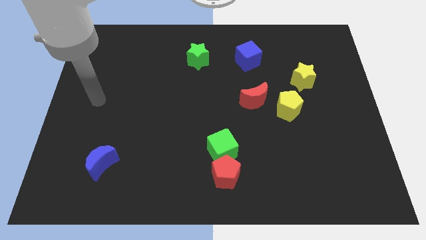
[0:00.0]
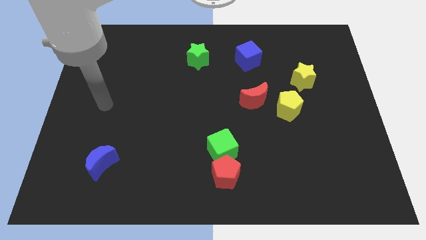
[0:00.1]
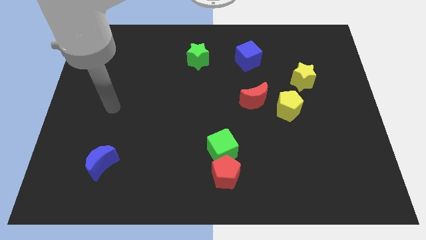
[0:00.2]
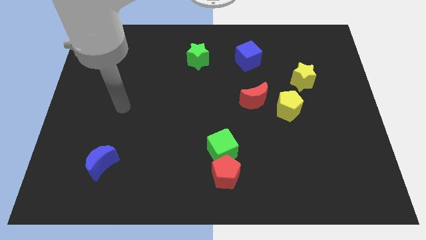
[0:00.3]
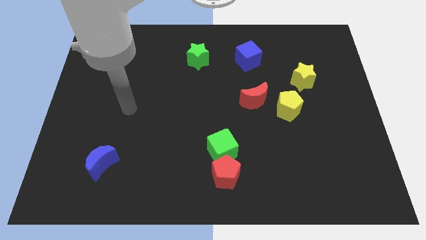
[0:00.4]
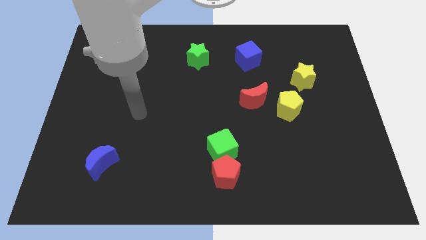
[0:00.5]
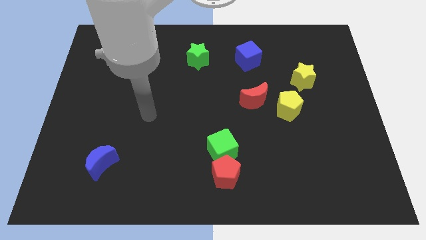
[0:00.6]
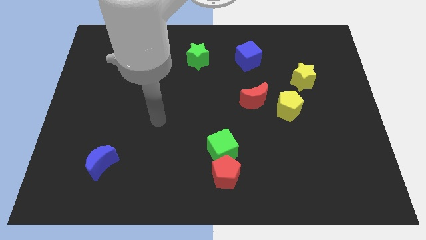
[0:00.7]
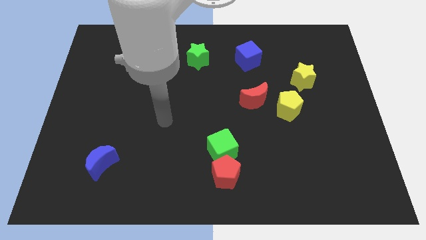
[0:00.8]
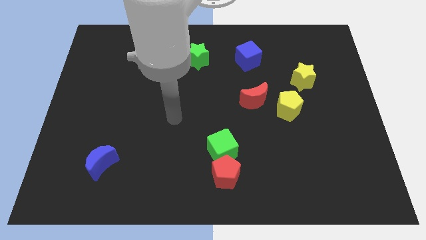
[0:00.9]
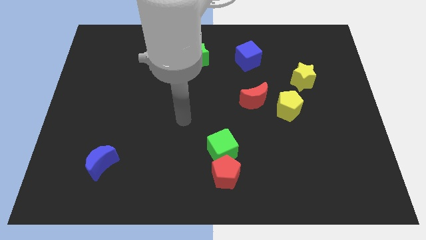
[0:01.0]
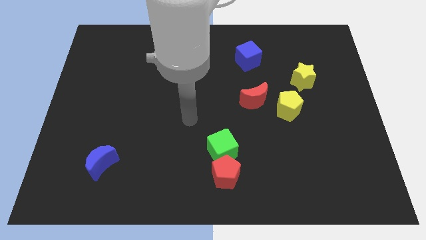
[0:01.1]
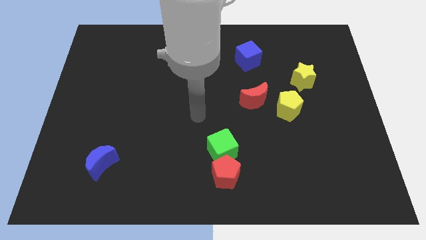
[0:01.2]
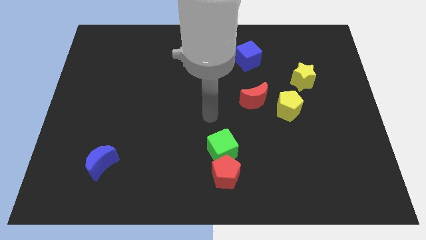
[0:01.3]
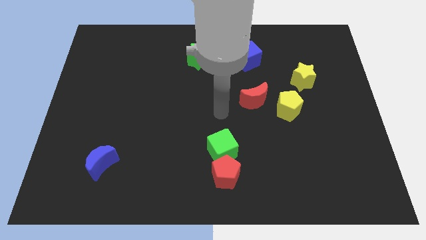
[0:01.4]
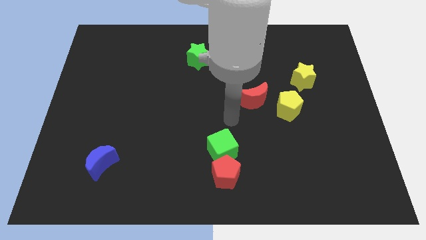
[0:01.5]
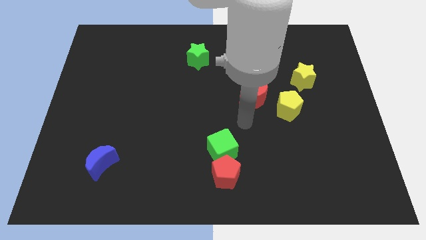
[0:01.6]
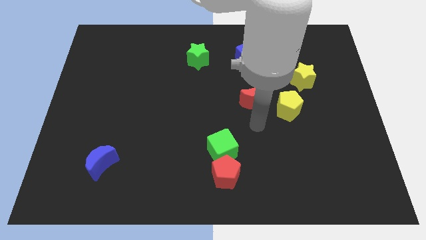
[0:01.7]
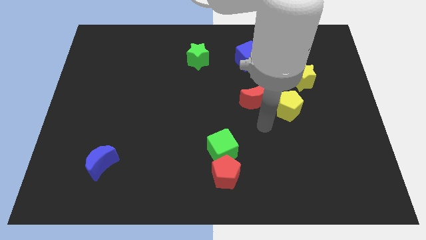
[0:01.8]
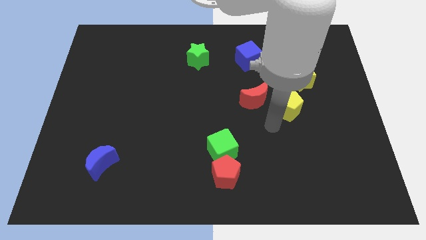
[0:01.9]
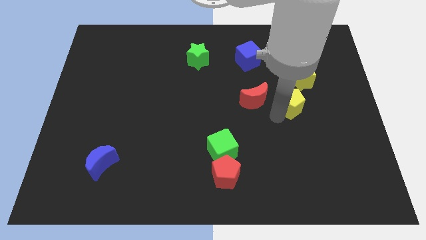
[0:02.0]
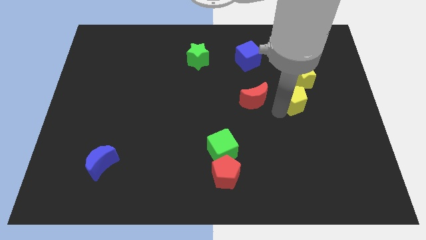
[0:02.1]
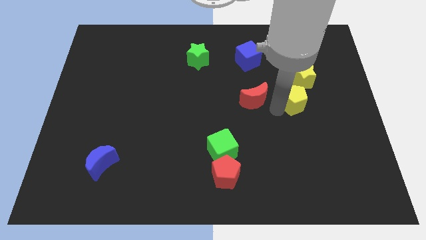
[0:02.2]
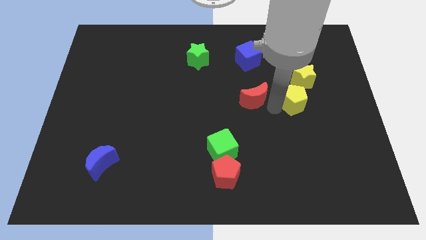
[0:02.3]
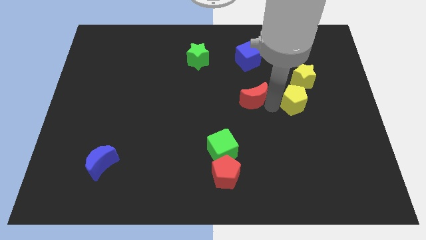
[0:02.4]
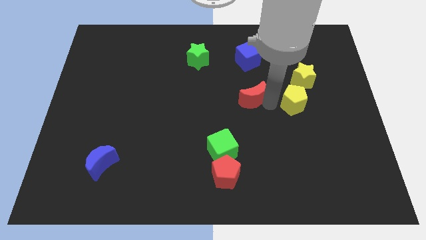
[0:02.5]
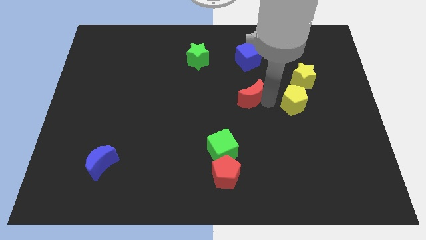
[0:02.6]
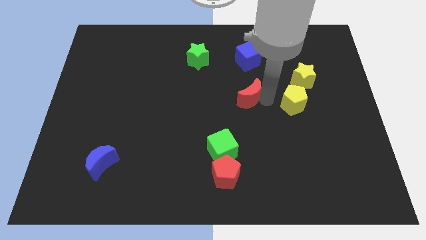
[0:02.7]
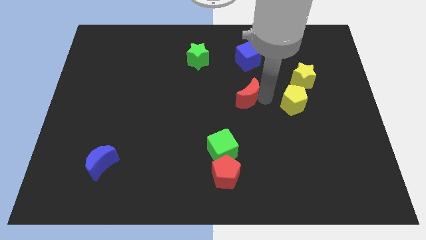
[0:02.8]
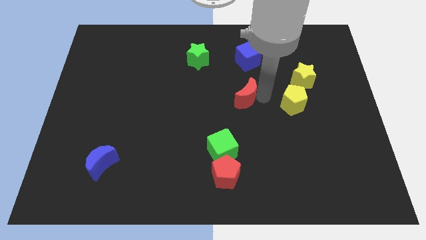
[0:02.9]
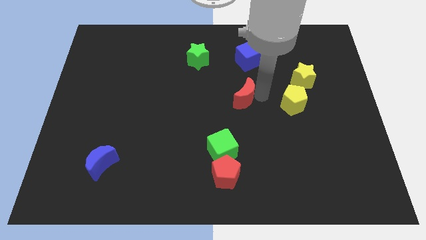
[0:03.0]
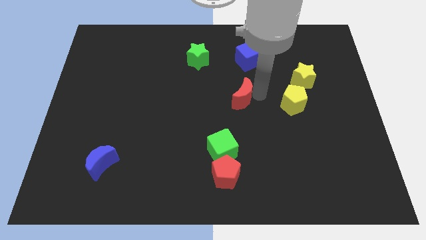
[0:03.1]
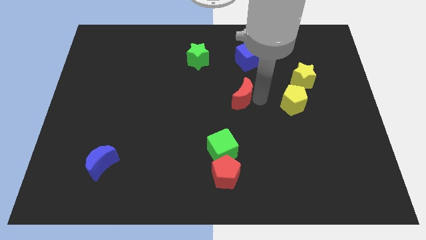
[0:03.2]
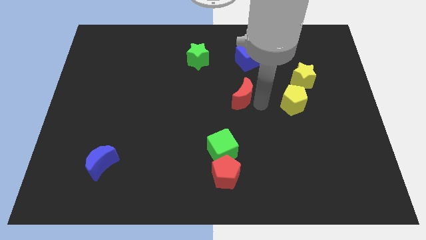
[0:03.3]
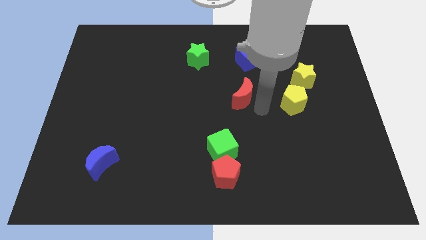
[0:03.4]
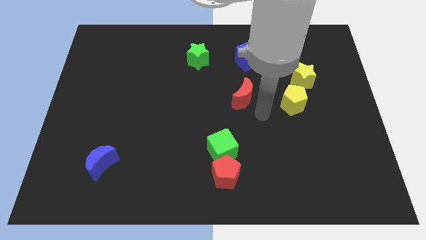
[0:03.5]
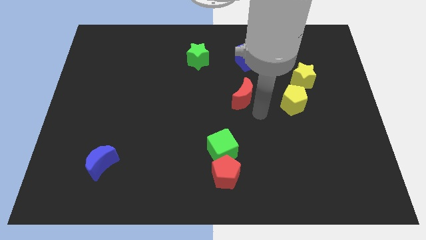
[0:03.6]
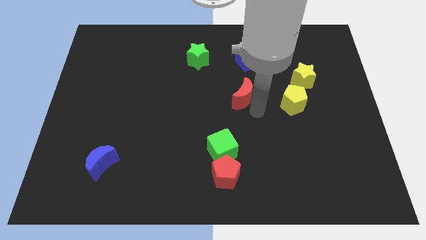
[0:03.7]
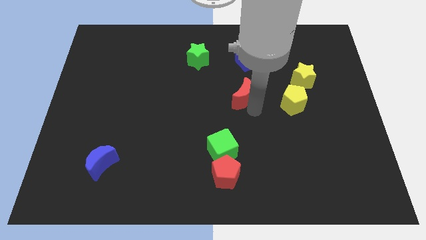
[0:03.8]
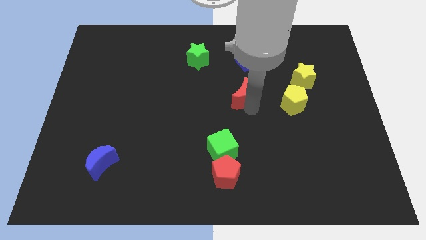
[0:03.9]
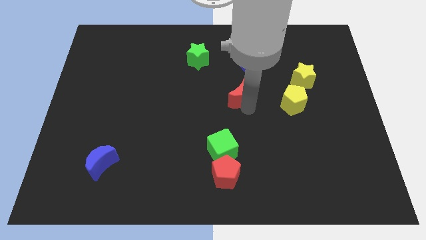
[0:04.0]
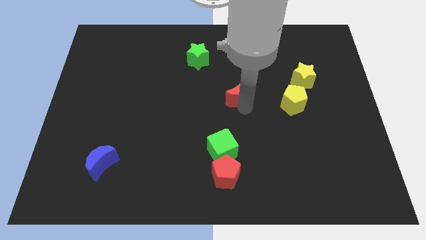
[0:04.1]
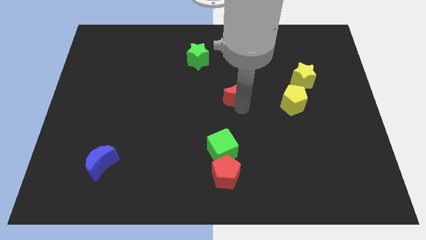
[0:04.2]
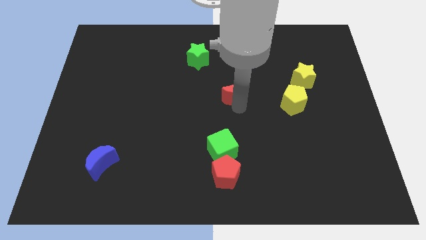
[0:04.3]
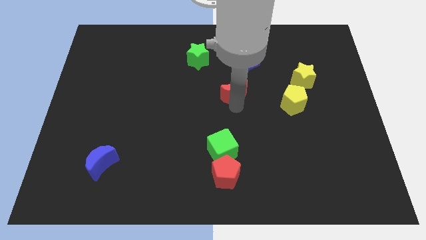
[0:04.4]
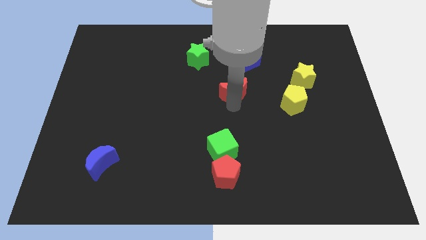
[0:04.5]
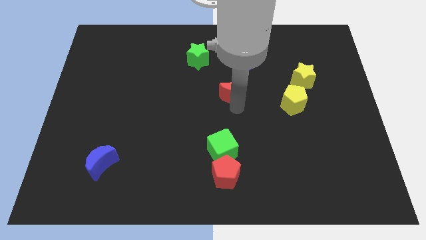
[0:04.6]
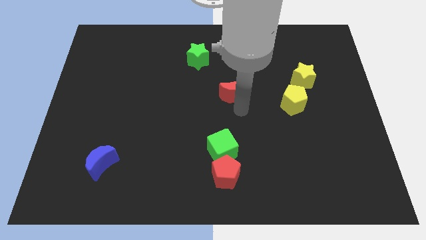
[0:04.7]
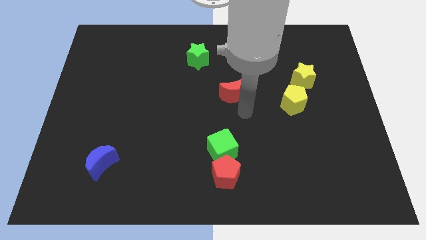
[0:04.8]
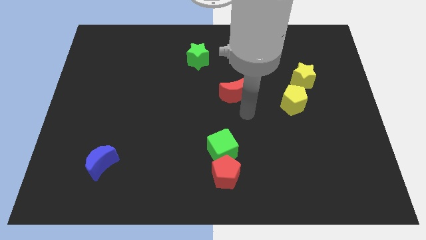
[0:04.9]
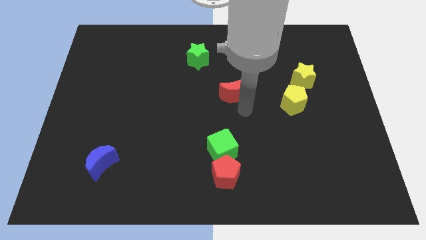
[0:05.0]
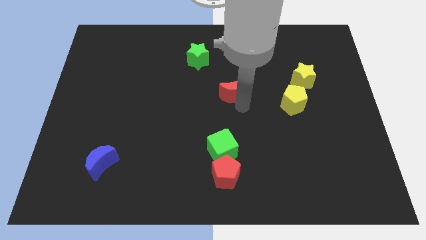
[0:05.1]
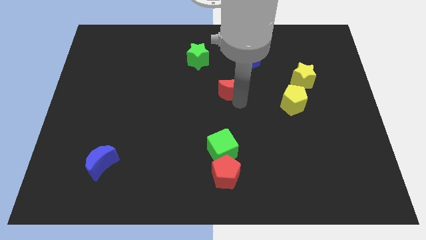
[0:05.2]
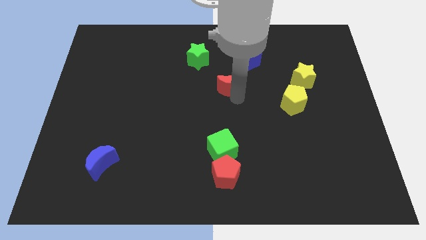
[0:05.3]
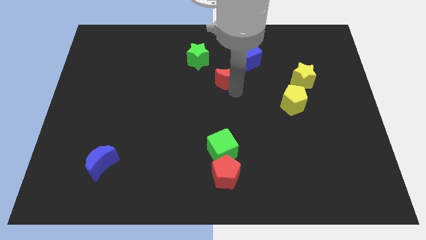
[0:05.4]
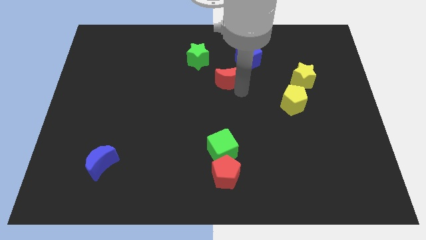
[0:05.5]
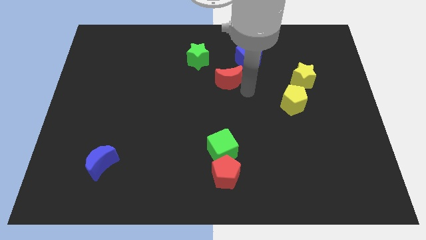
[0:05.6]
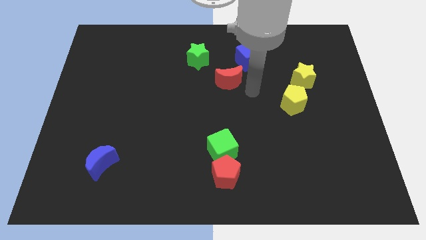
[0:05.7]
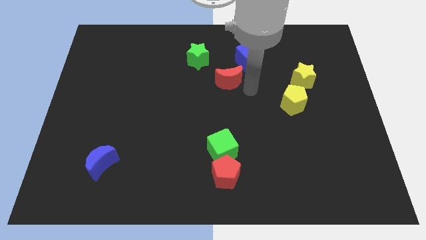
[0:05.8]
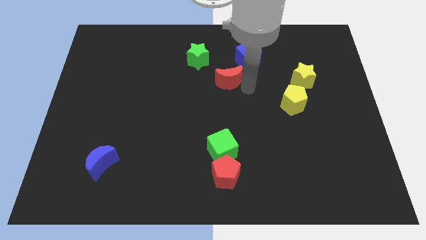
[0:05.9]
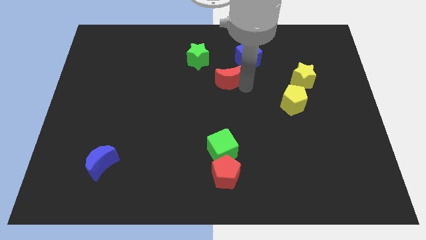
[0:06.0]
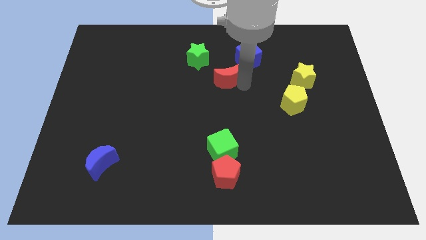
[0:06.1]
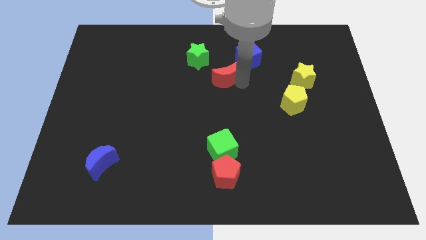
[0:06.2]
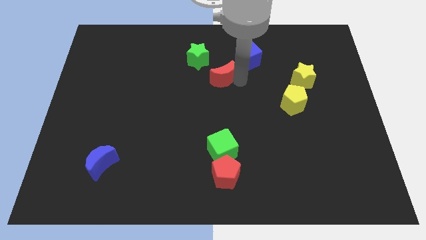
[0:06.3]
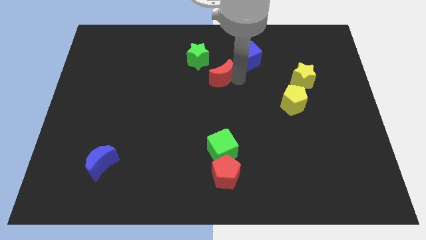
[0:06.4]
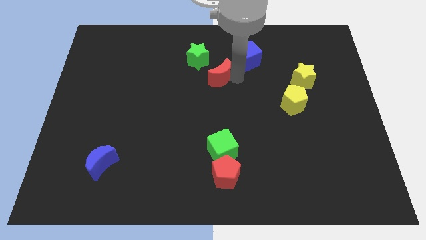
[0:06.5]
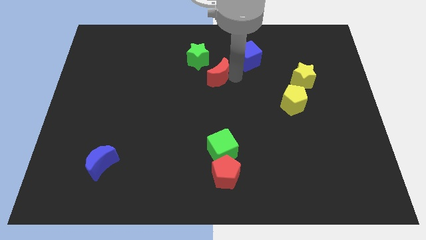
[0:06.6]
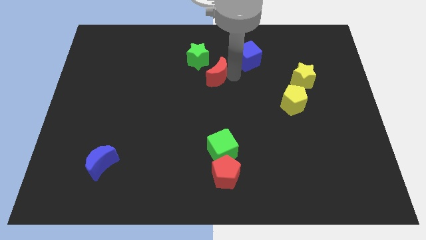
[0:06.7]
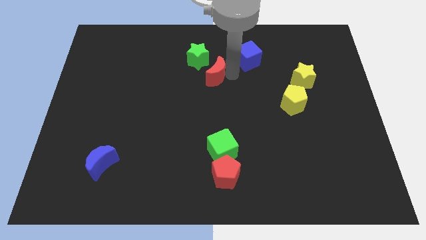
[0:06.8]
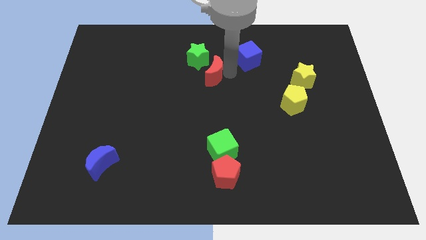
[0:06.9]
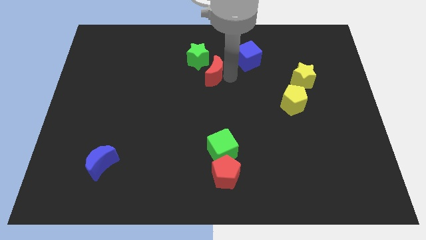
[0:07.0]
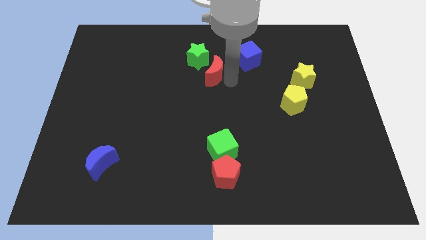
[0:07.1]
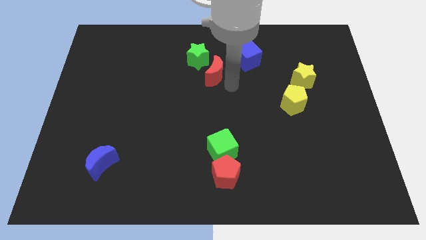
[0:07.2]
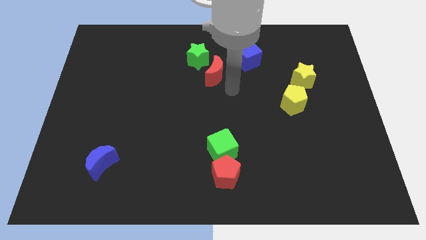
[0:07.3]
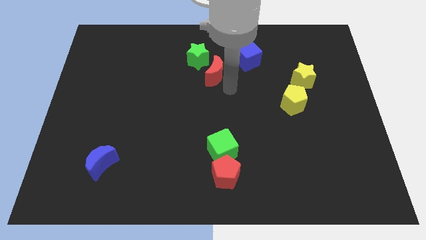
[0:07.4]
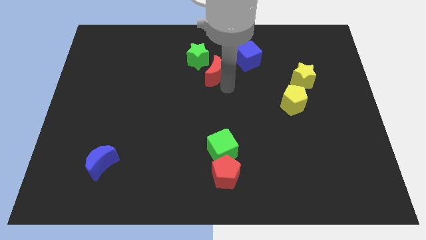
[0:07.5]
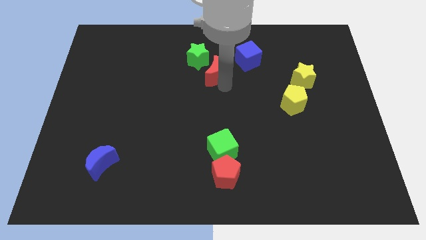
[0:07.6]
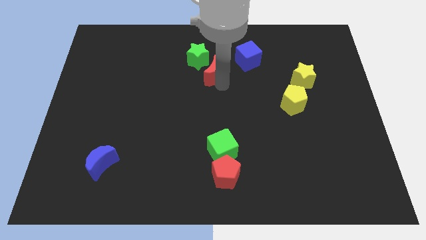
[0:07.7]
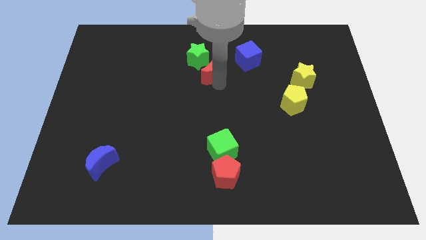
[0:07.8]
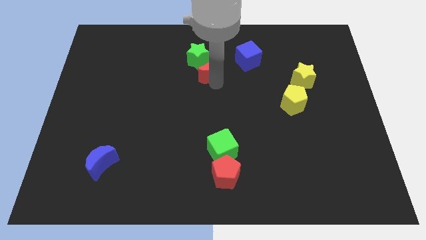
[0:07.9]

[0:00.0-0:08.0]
put the red moon close to the green star

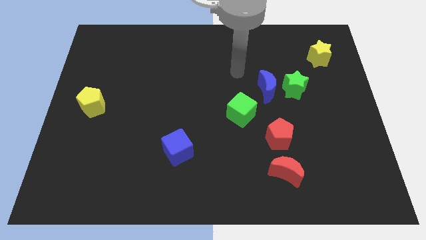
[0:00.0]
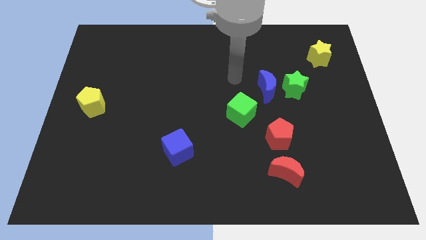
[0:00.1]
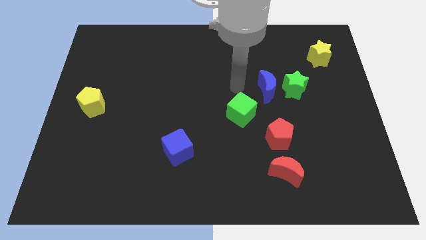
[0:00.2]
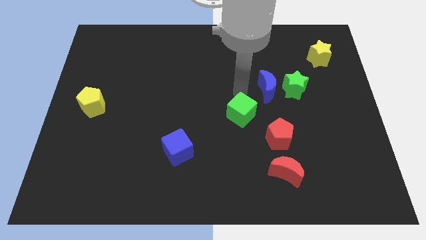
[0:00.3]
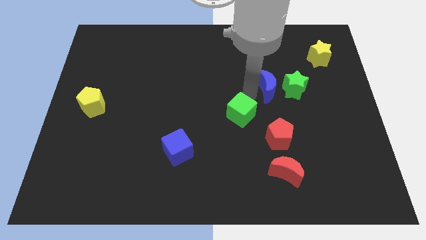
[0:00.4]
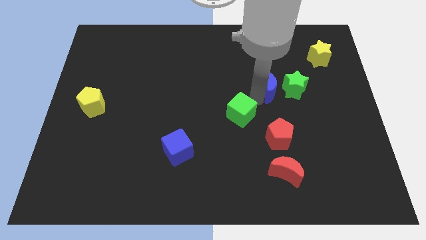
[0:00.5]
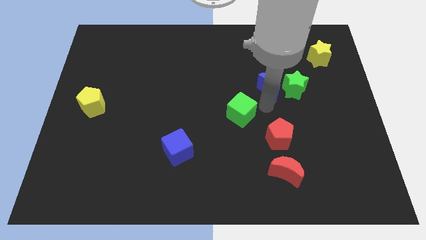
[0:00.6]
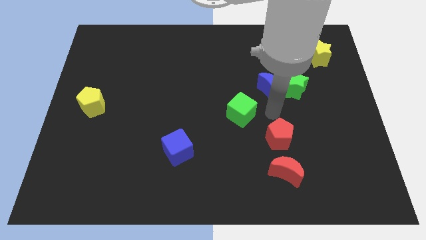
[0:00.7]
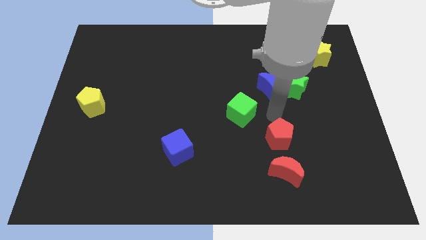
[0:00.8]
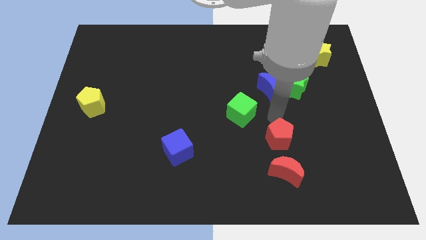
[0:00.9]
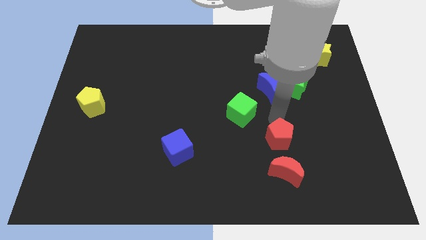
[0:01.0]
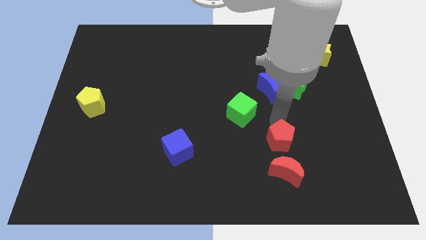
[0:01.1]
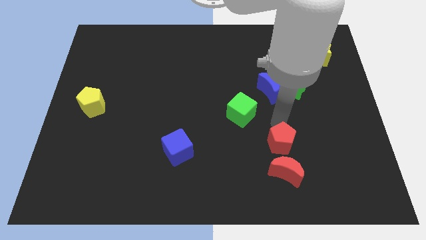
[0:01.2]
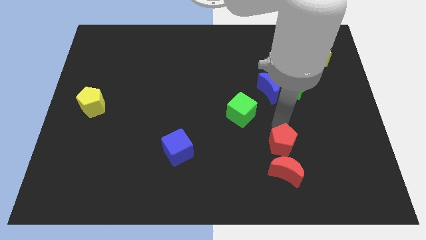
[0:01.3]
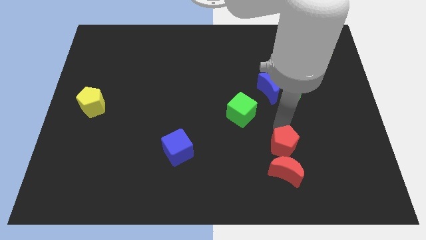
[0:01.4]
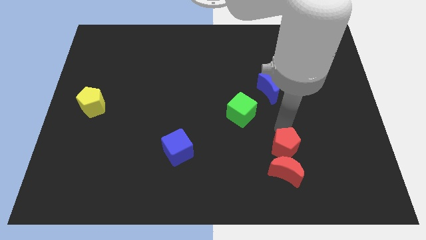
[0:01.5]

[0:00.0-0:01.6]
move the red pentagon towards the red moon
